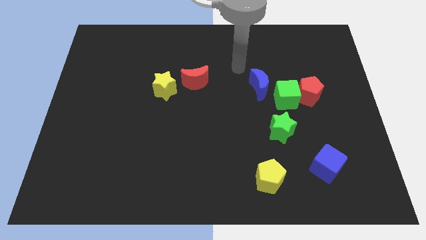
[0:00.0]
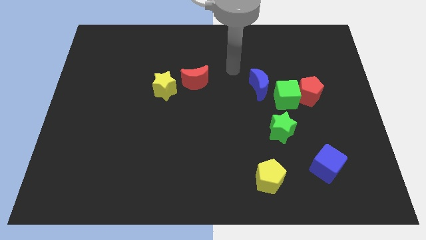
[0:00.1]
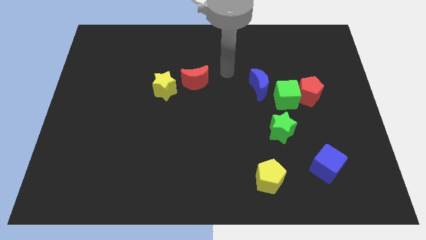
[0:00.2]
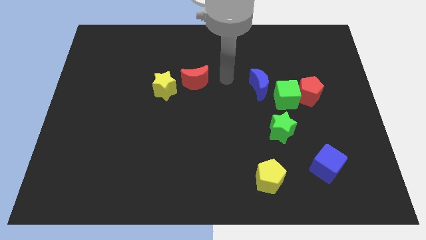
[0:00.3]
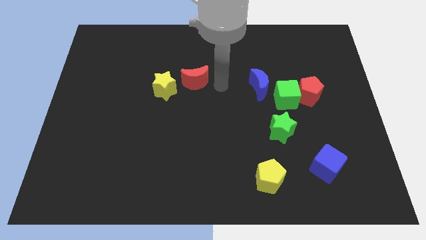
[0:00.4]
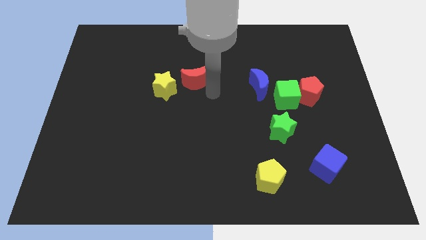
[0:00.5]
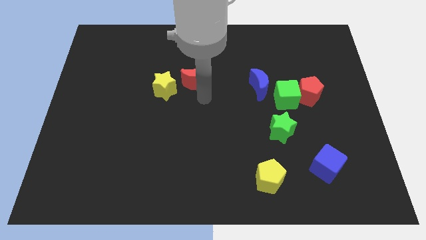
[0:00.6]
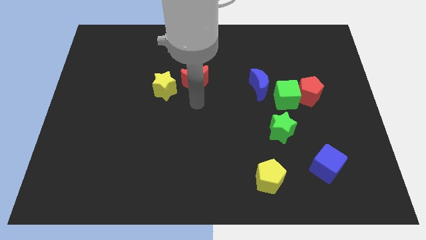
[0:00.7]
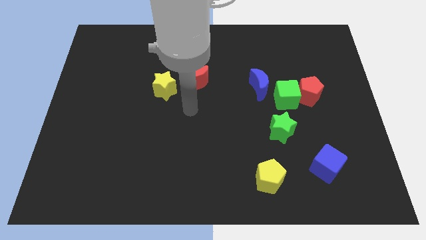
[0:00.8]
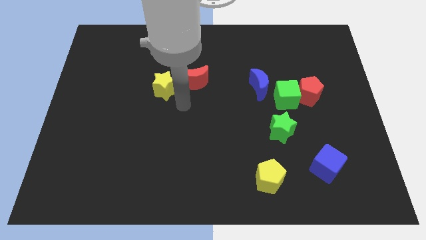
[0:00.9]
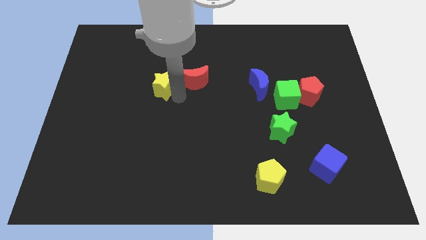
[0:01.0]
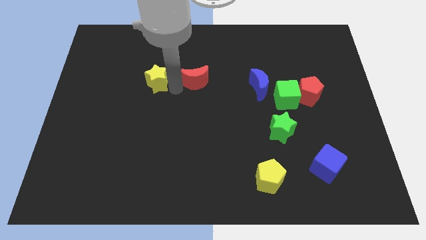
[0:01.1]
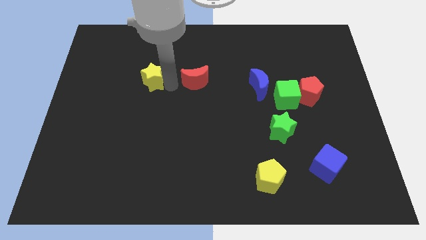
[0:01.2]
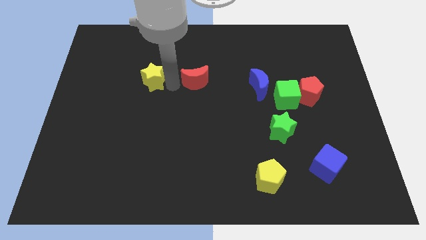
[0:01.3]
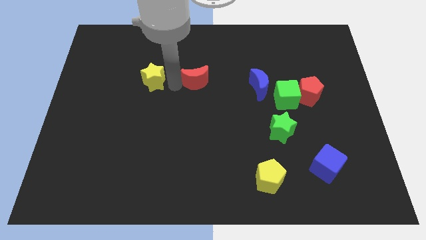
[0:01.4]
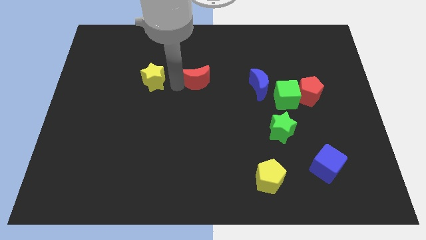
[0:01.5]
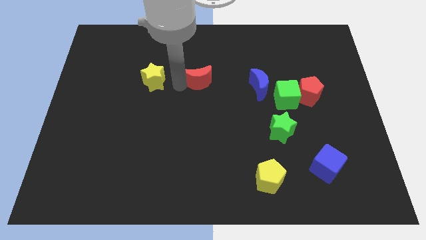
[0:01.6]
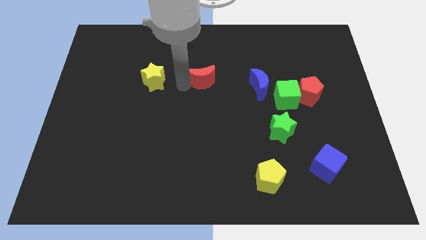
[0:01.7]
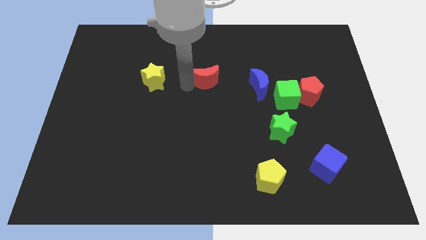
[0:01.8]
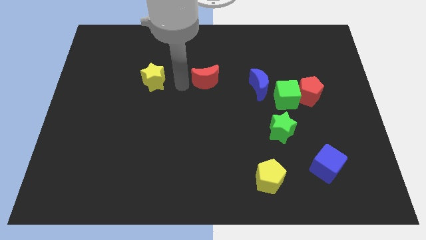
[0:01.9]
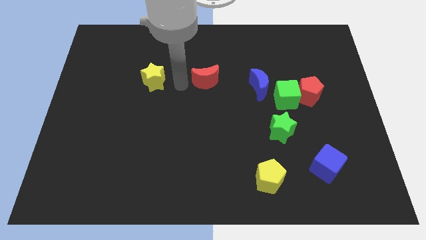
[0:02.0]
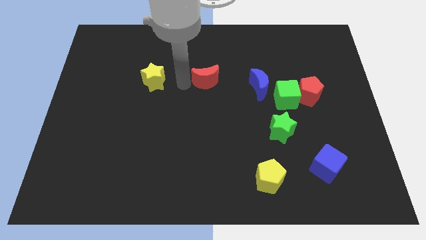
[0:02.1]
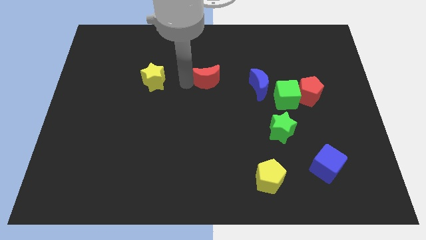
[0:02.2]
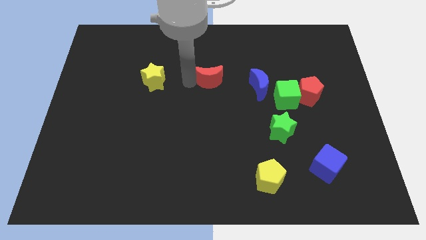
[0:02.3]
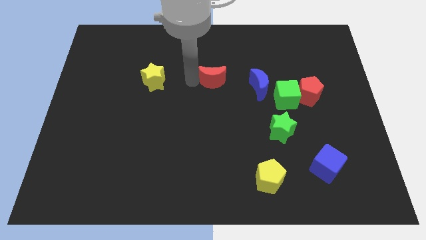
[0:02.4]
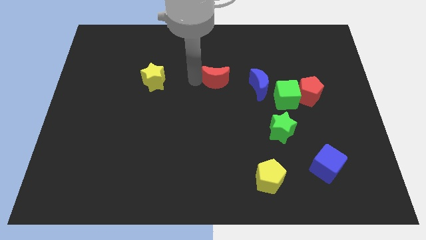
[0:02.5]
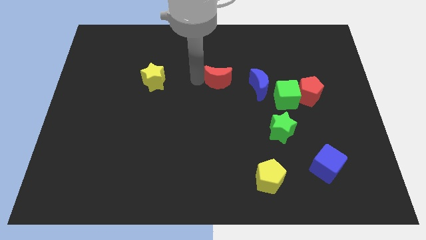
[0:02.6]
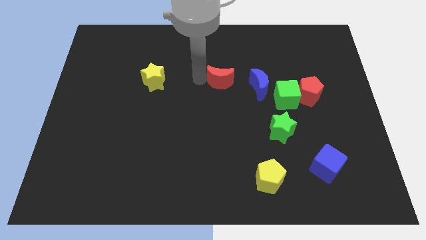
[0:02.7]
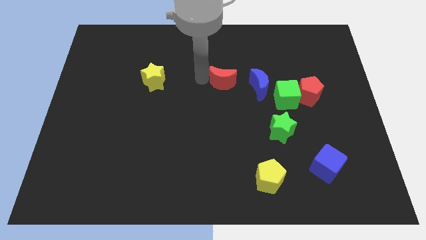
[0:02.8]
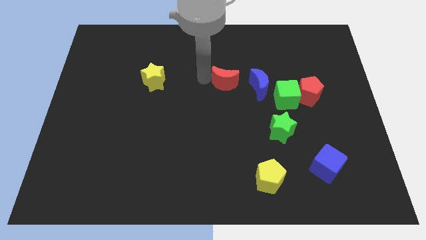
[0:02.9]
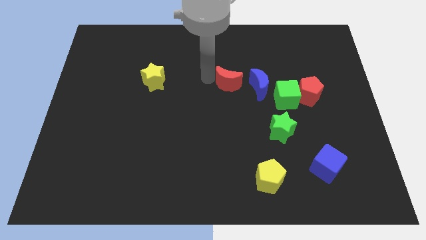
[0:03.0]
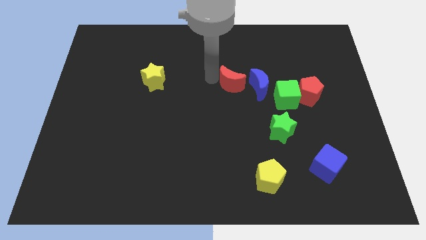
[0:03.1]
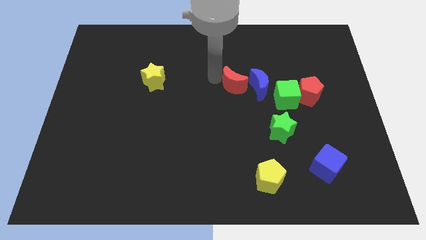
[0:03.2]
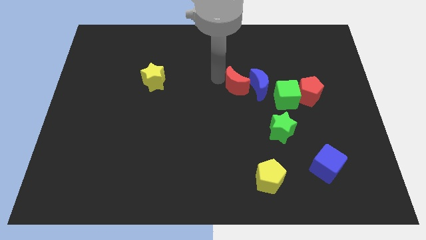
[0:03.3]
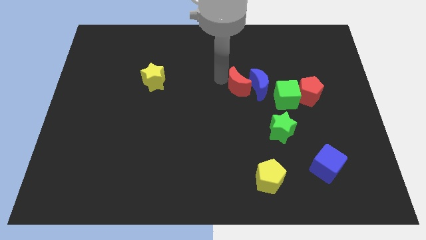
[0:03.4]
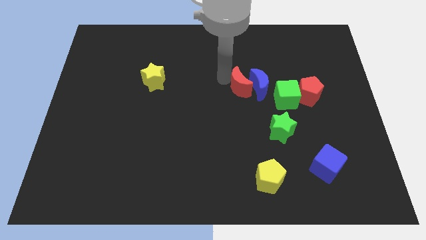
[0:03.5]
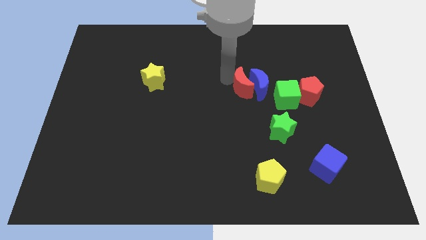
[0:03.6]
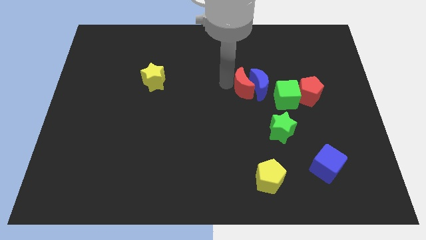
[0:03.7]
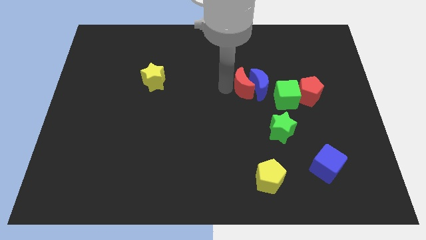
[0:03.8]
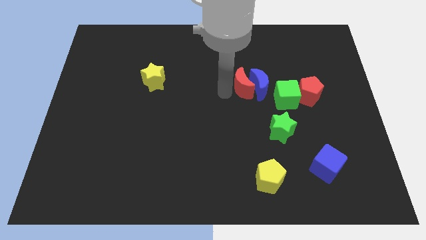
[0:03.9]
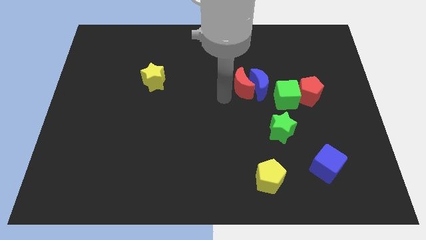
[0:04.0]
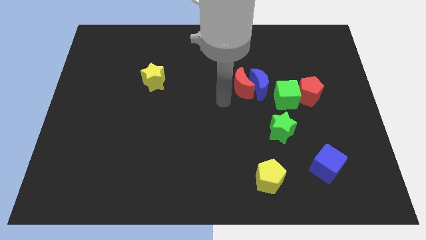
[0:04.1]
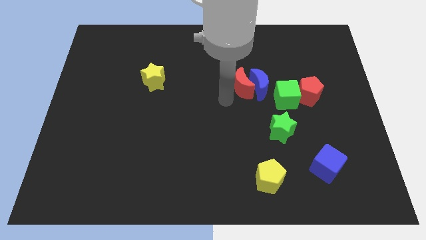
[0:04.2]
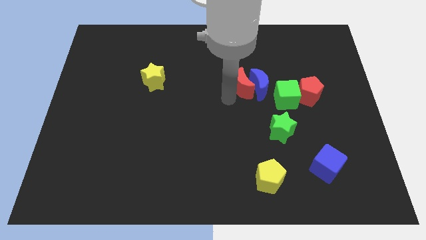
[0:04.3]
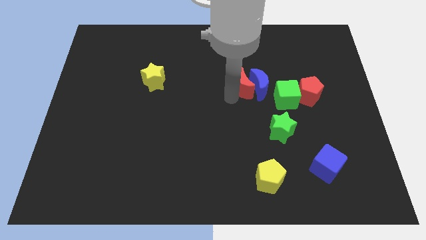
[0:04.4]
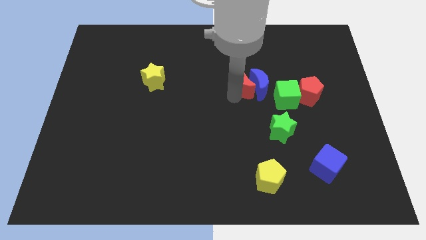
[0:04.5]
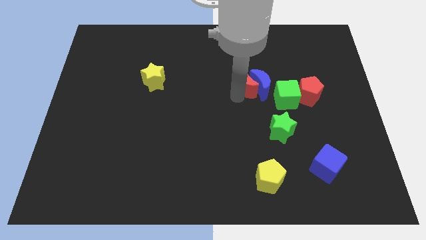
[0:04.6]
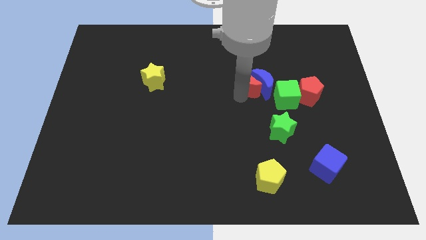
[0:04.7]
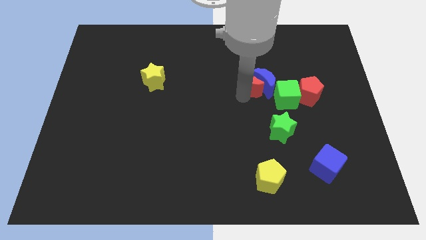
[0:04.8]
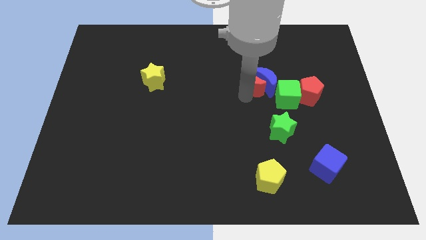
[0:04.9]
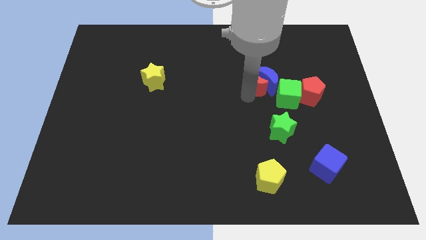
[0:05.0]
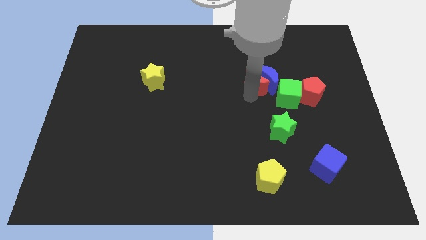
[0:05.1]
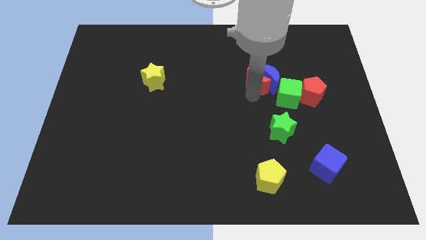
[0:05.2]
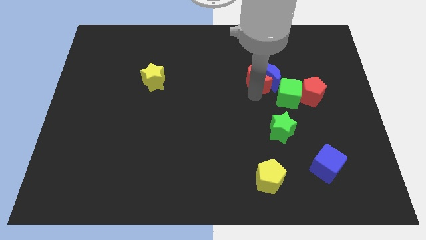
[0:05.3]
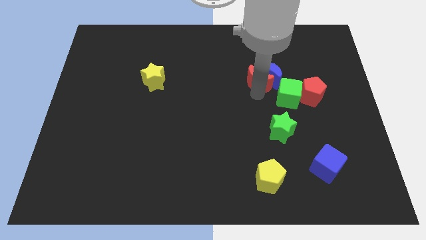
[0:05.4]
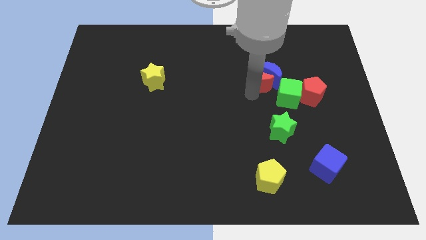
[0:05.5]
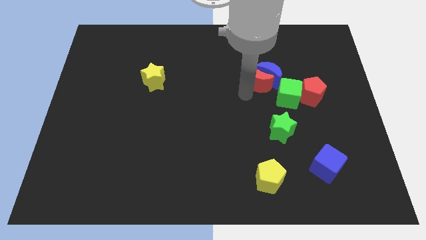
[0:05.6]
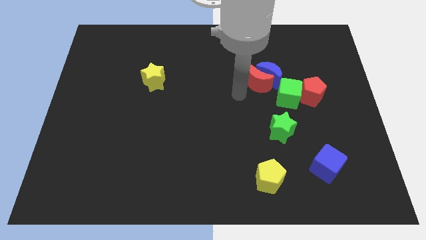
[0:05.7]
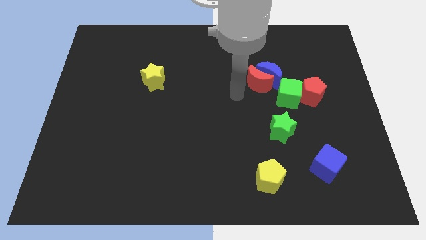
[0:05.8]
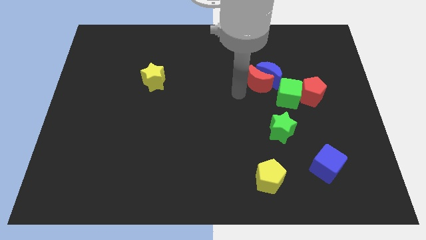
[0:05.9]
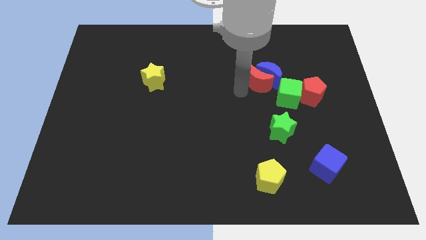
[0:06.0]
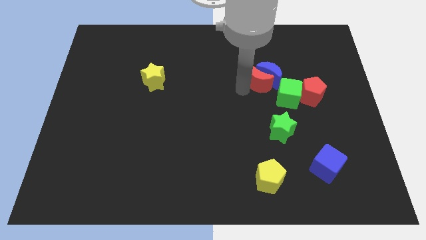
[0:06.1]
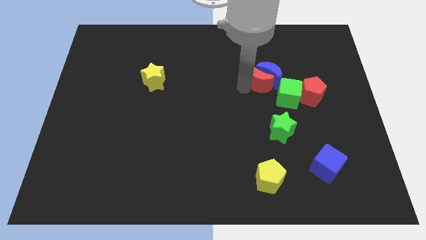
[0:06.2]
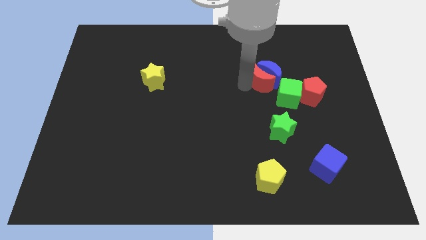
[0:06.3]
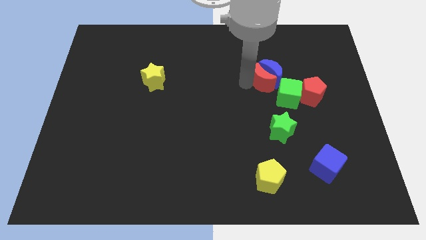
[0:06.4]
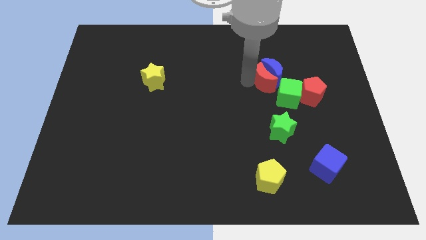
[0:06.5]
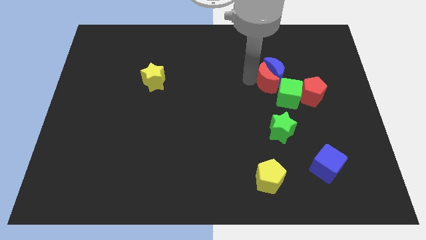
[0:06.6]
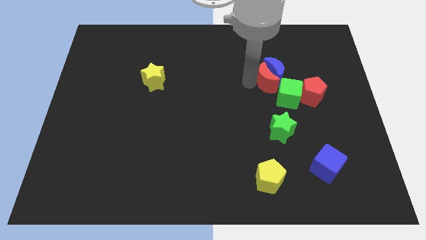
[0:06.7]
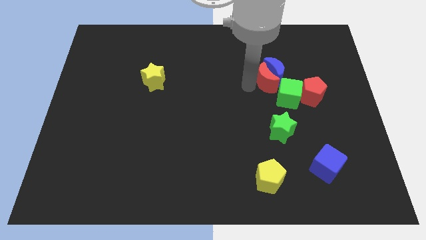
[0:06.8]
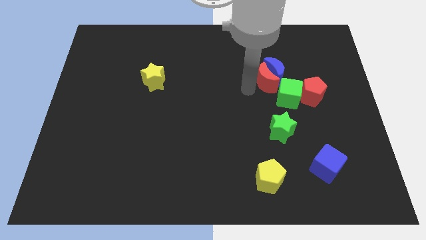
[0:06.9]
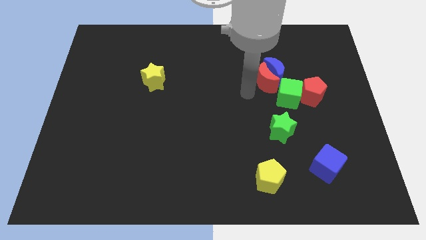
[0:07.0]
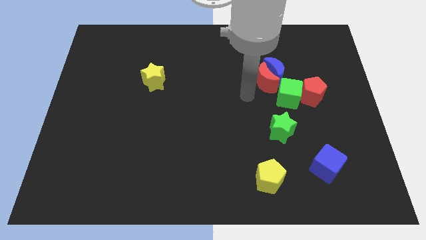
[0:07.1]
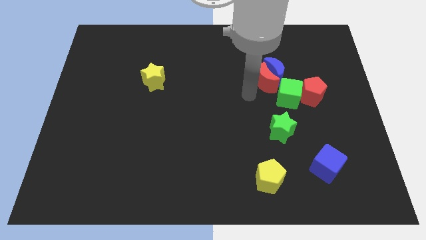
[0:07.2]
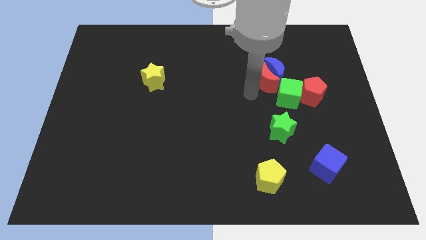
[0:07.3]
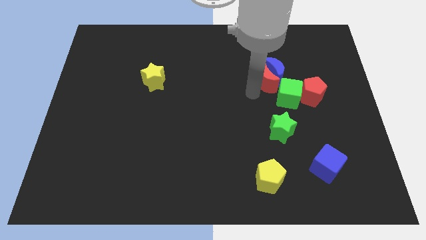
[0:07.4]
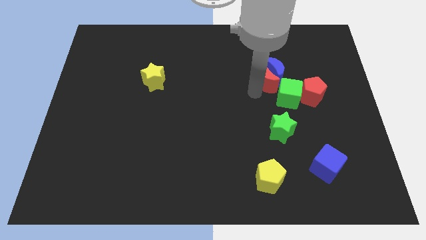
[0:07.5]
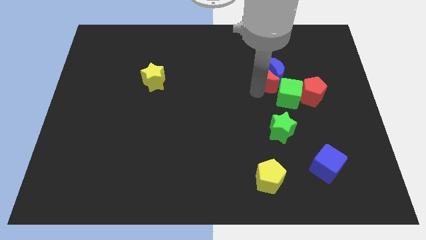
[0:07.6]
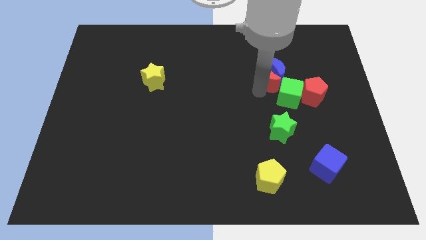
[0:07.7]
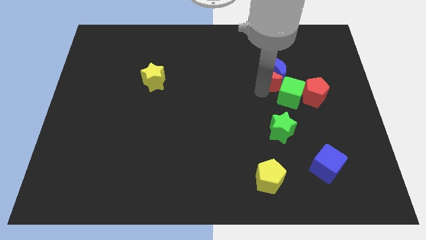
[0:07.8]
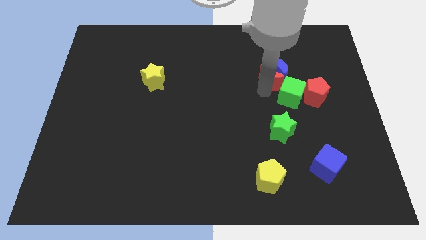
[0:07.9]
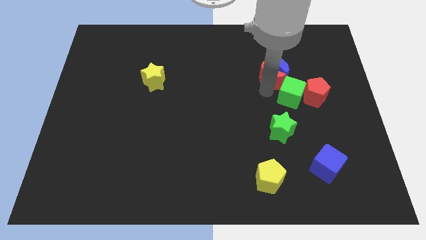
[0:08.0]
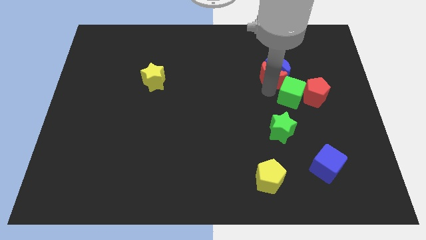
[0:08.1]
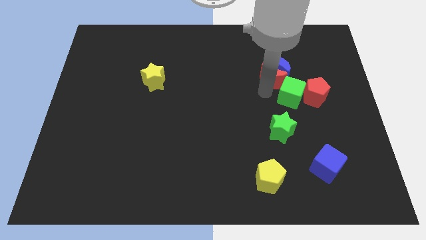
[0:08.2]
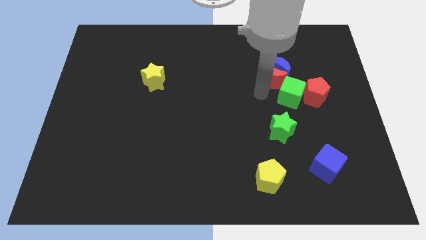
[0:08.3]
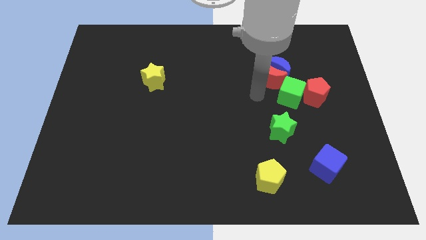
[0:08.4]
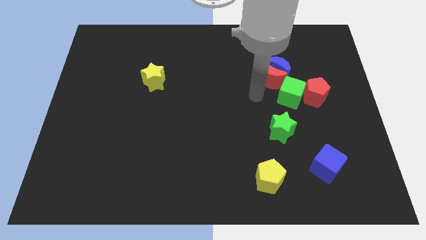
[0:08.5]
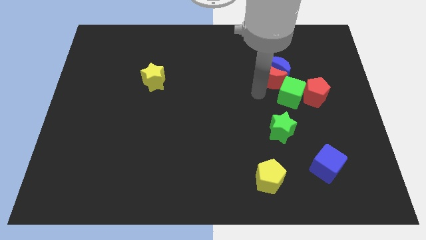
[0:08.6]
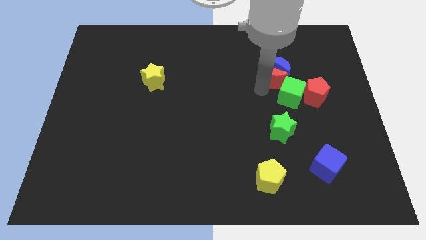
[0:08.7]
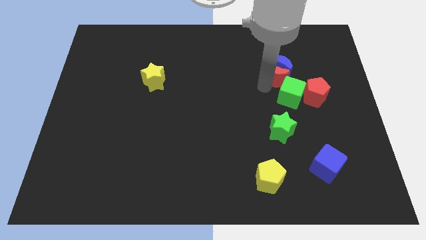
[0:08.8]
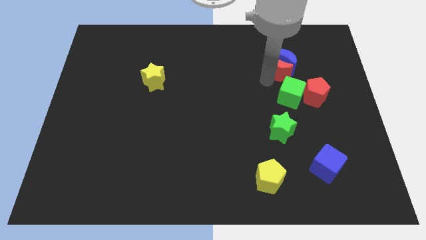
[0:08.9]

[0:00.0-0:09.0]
move the red moon right
